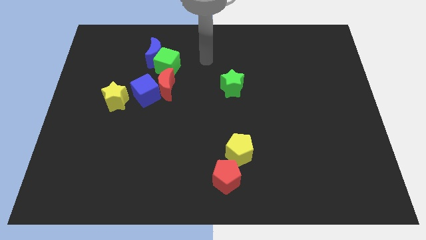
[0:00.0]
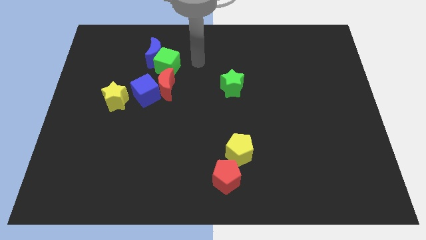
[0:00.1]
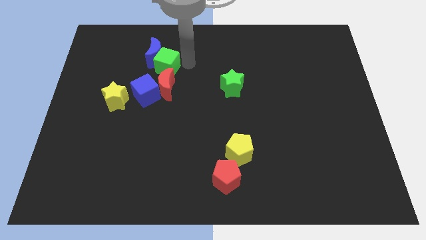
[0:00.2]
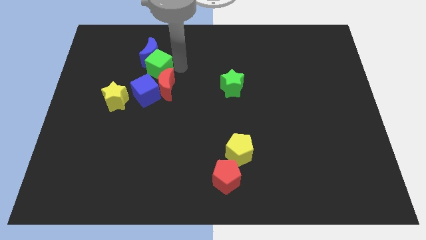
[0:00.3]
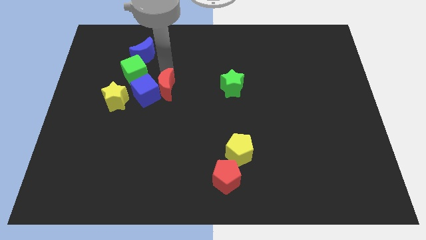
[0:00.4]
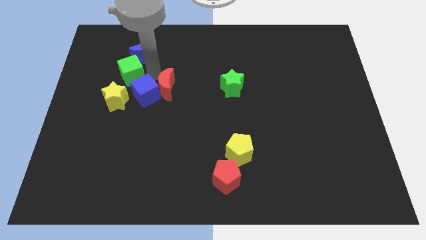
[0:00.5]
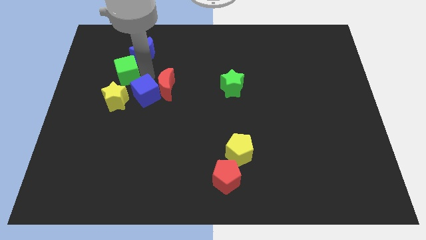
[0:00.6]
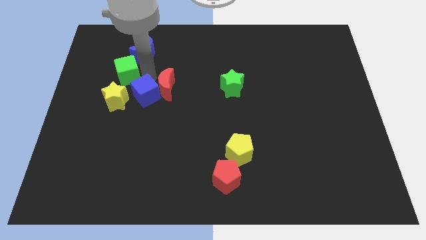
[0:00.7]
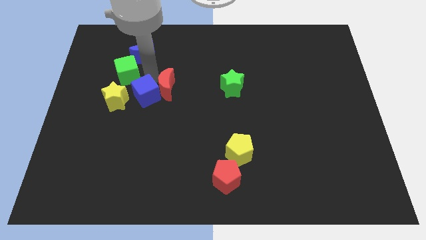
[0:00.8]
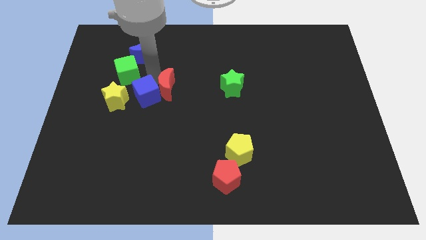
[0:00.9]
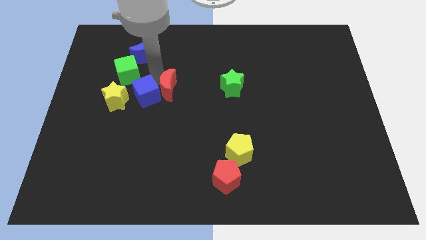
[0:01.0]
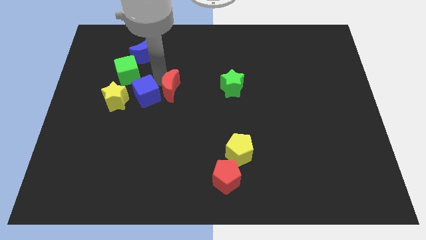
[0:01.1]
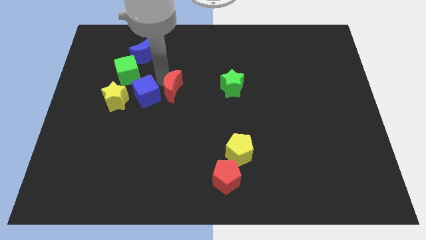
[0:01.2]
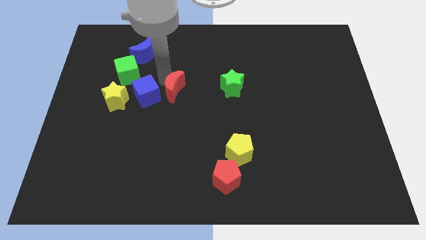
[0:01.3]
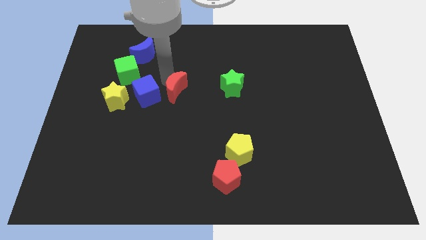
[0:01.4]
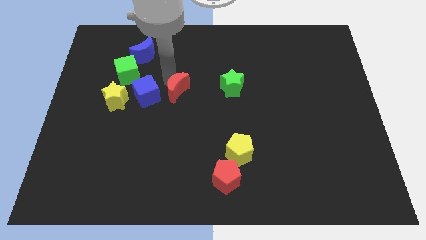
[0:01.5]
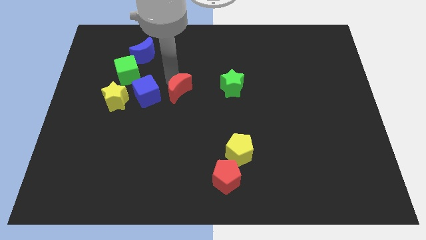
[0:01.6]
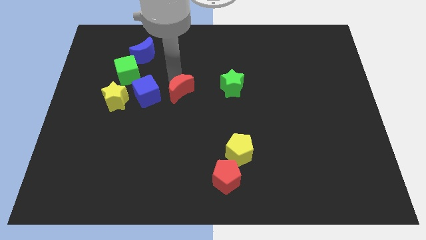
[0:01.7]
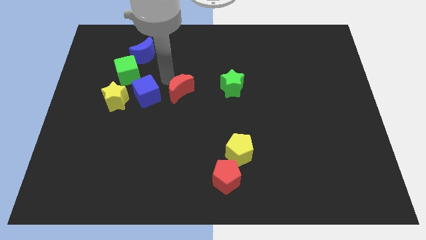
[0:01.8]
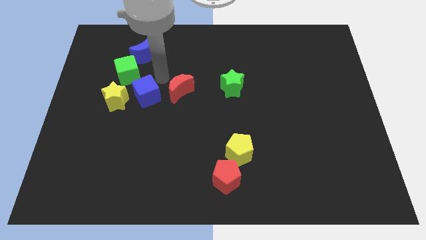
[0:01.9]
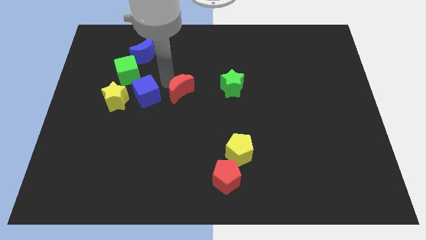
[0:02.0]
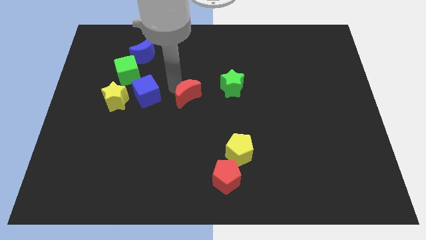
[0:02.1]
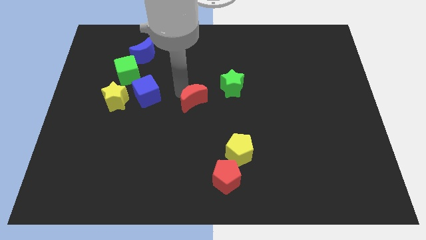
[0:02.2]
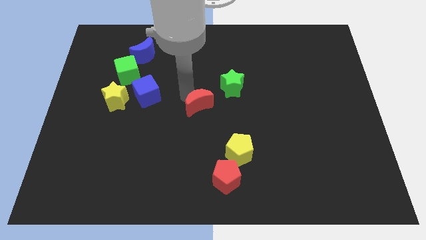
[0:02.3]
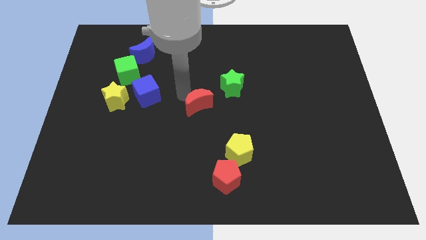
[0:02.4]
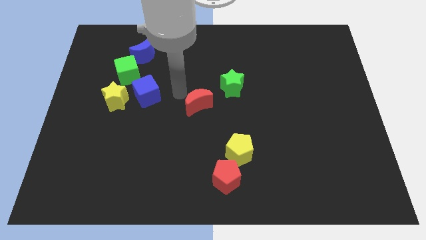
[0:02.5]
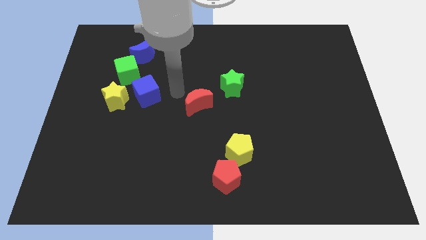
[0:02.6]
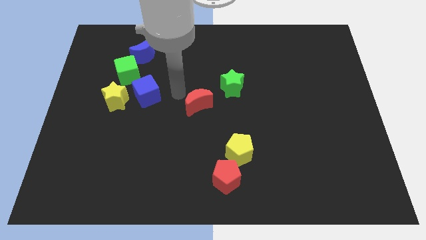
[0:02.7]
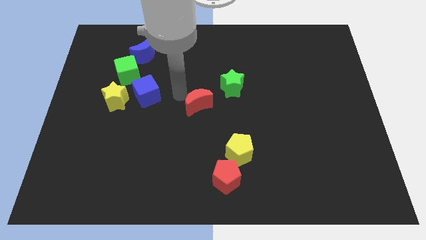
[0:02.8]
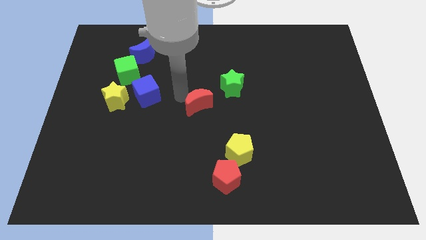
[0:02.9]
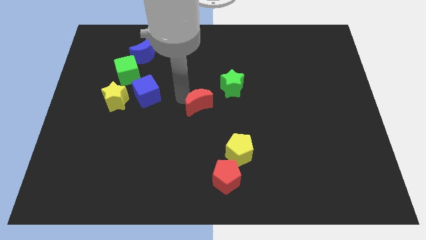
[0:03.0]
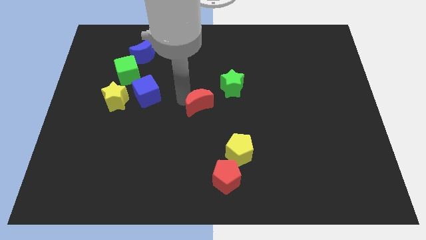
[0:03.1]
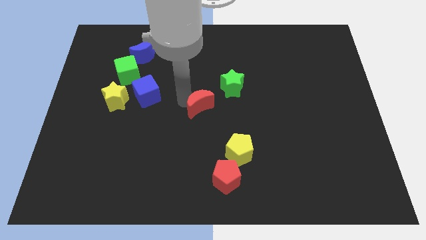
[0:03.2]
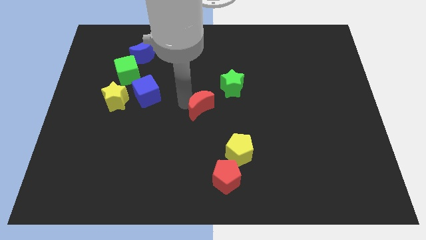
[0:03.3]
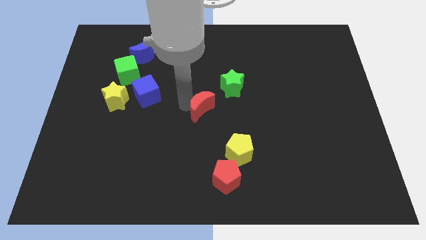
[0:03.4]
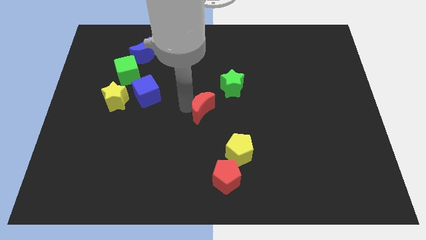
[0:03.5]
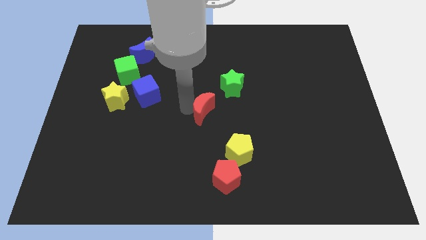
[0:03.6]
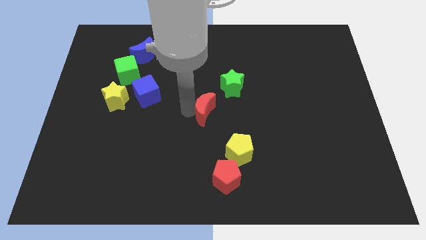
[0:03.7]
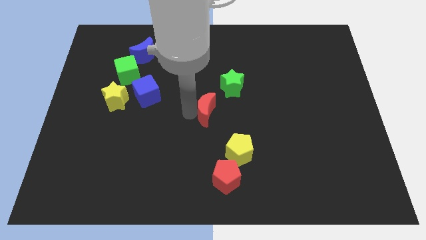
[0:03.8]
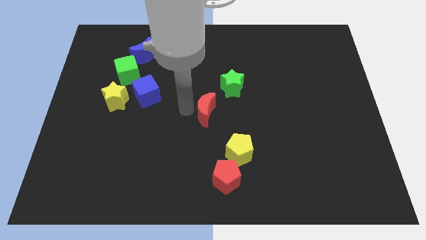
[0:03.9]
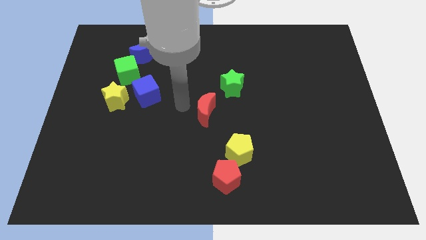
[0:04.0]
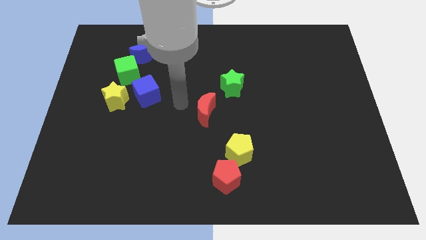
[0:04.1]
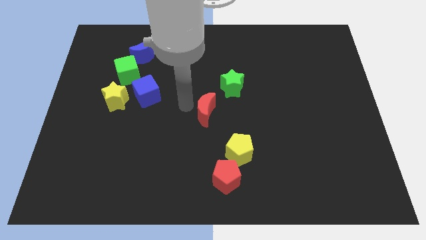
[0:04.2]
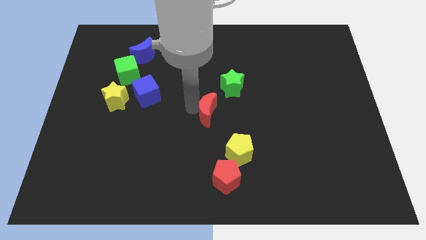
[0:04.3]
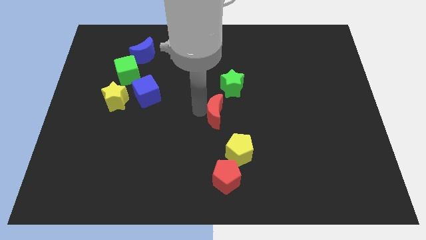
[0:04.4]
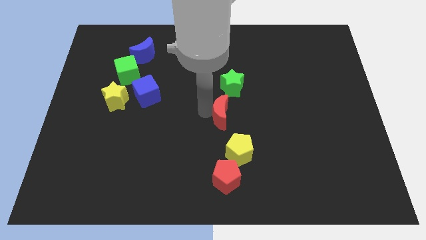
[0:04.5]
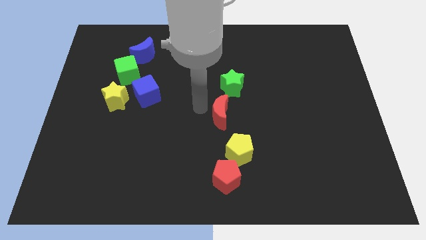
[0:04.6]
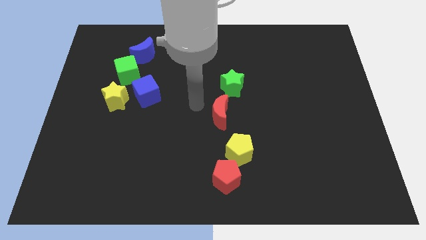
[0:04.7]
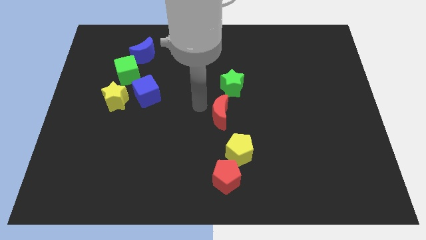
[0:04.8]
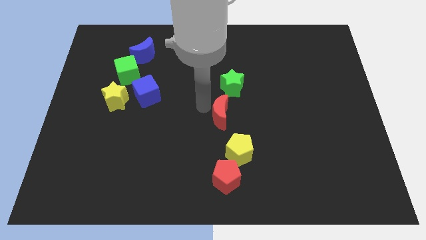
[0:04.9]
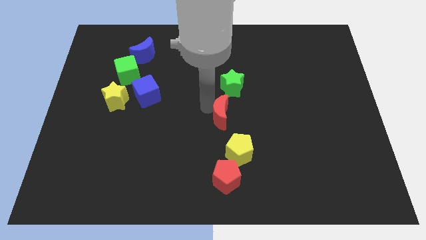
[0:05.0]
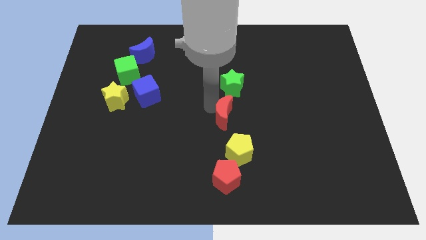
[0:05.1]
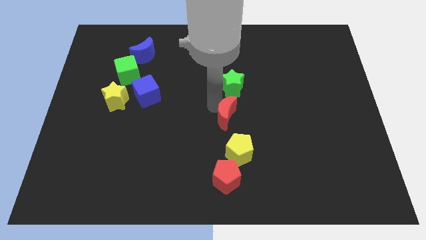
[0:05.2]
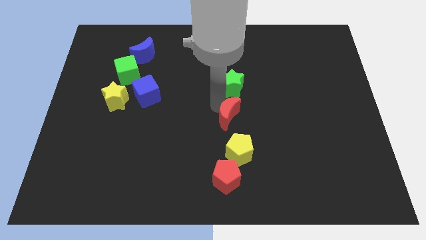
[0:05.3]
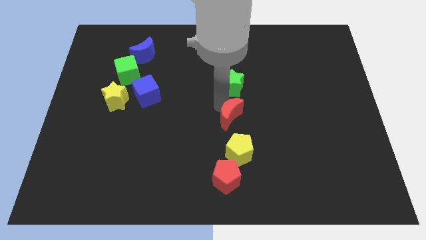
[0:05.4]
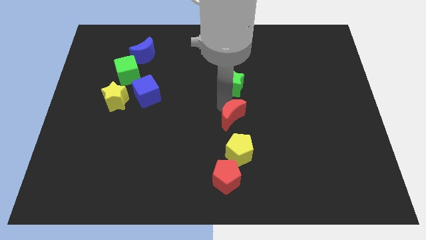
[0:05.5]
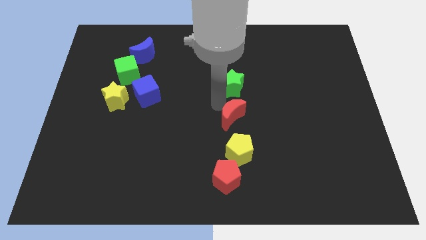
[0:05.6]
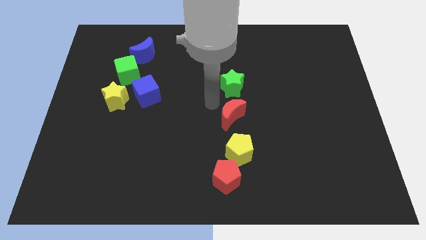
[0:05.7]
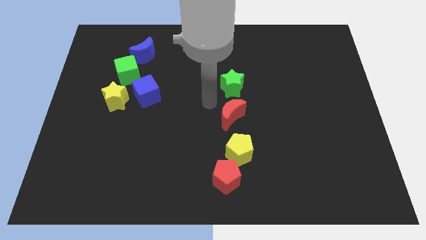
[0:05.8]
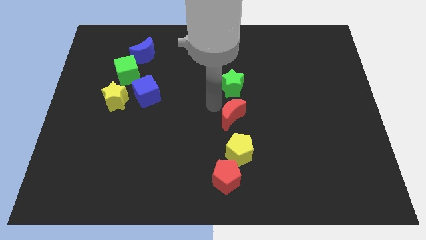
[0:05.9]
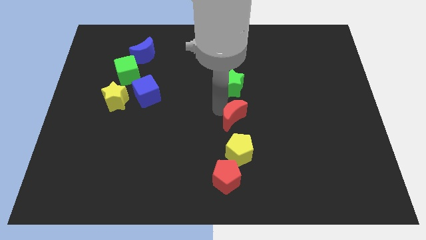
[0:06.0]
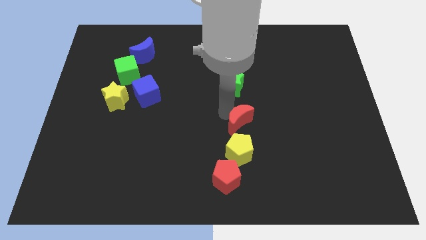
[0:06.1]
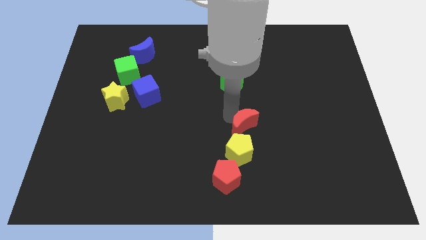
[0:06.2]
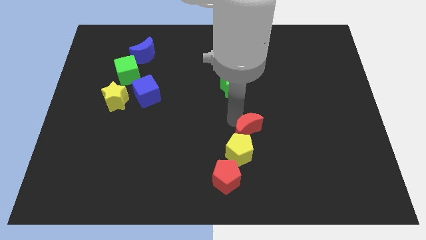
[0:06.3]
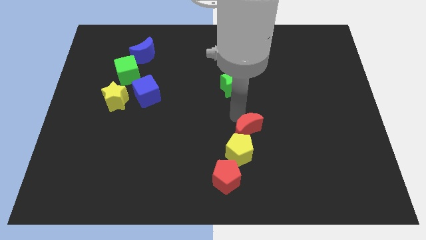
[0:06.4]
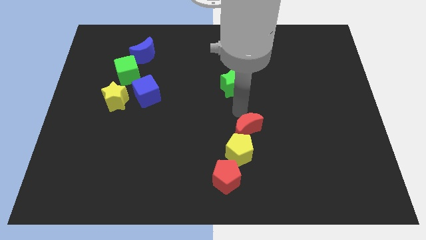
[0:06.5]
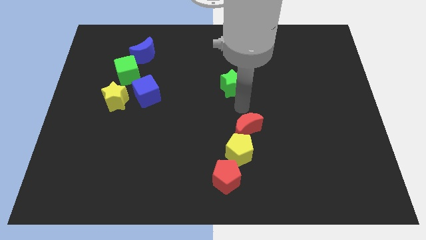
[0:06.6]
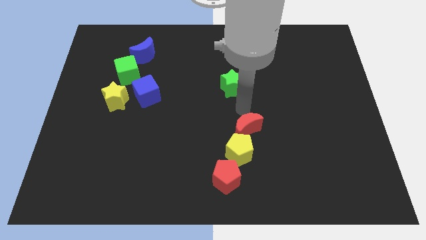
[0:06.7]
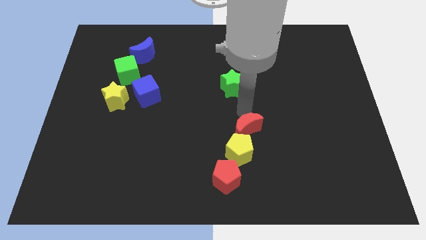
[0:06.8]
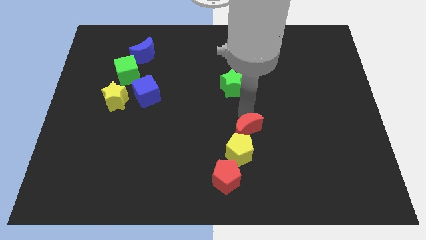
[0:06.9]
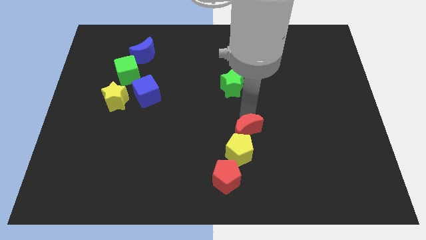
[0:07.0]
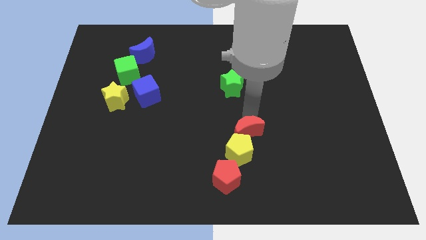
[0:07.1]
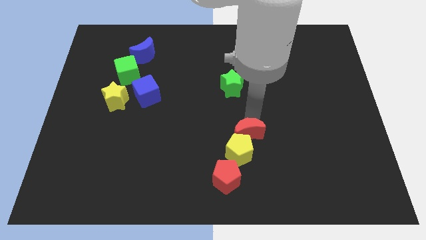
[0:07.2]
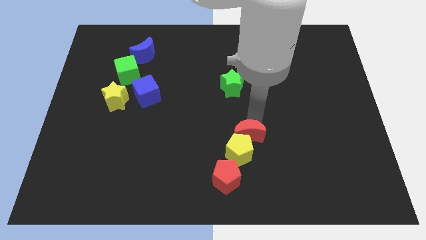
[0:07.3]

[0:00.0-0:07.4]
move the red moon diagonally up and to the right of the red pentagon

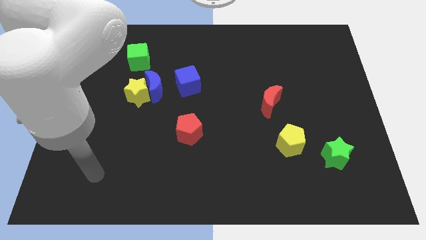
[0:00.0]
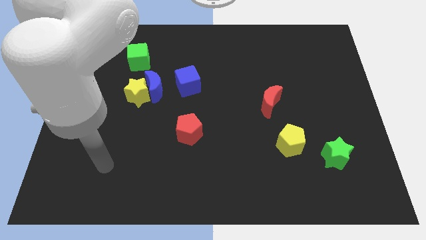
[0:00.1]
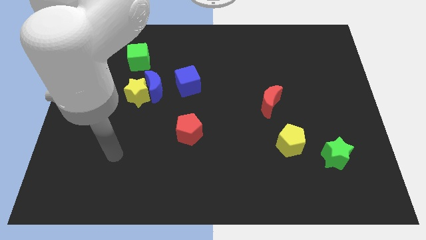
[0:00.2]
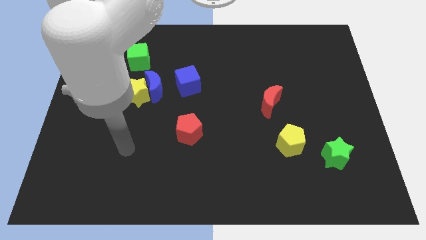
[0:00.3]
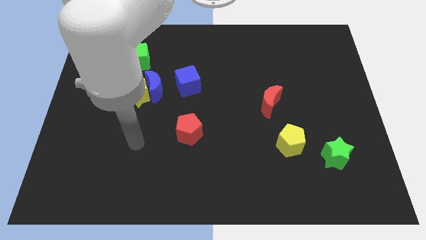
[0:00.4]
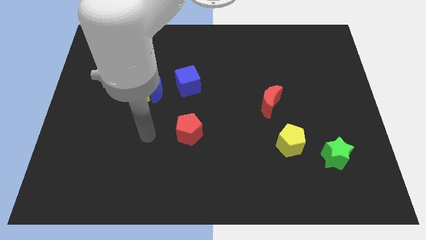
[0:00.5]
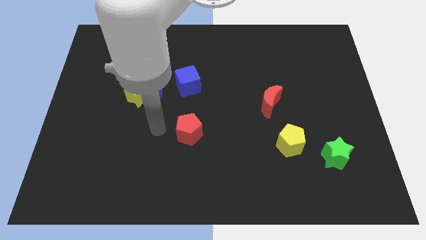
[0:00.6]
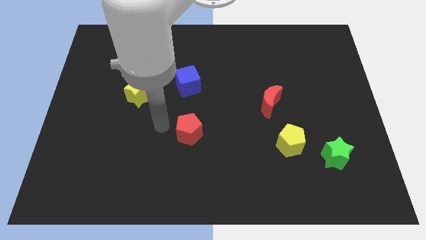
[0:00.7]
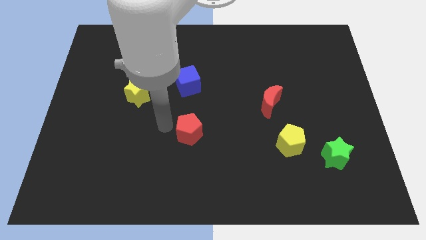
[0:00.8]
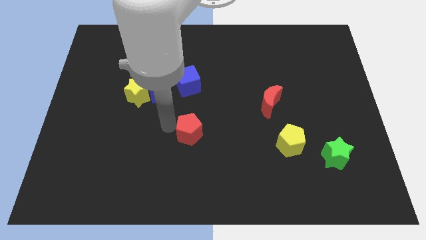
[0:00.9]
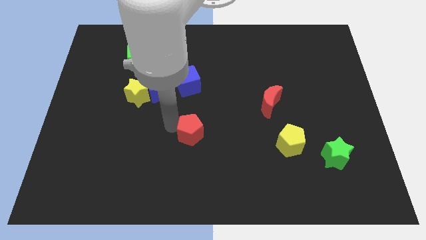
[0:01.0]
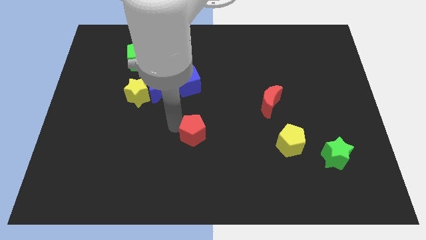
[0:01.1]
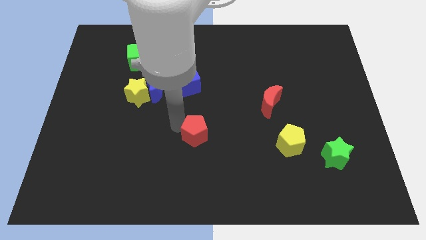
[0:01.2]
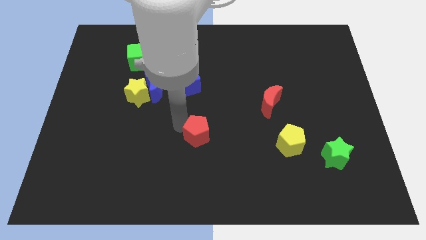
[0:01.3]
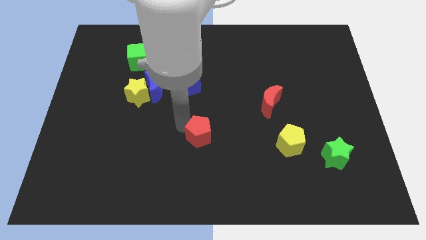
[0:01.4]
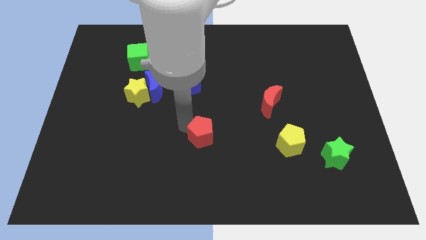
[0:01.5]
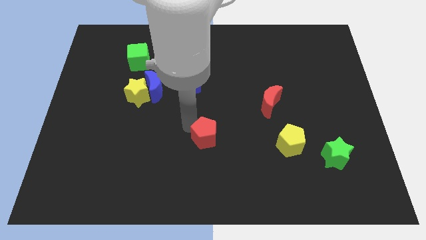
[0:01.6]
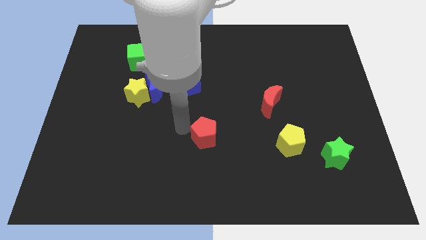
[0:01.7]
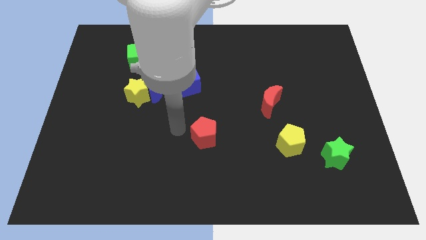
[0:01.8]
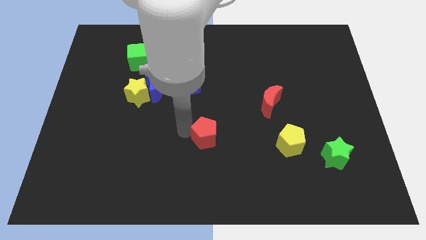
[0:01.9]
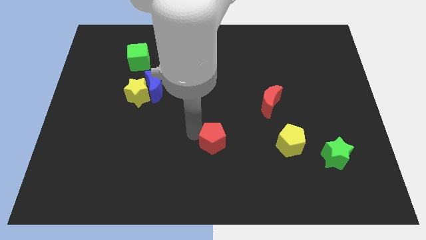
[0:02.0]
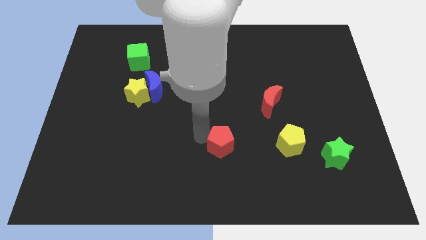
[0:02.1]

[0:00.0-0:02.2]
push the red pentagon to the left side of the yellow pentagon
